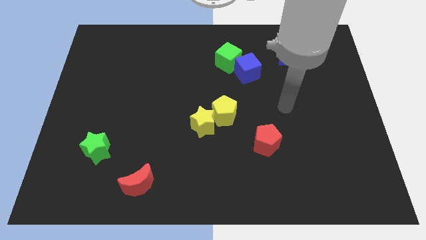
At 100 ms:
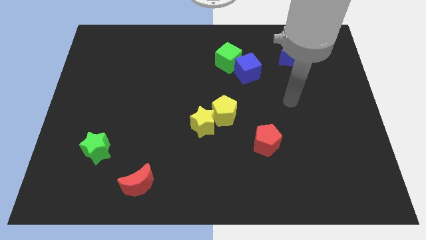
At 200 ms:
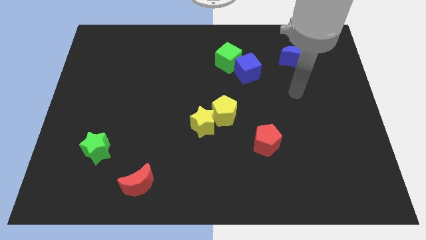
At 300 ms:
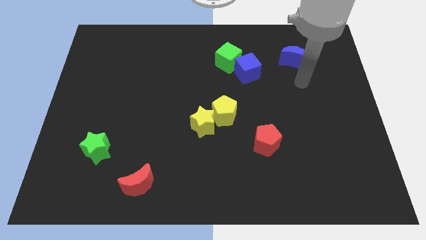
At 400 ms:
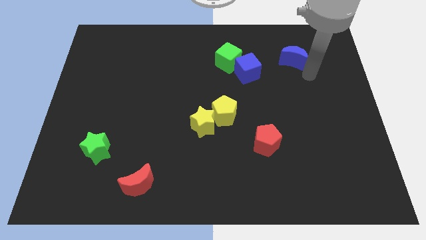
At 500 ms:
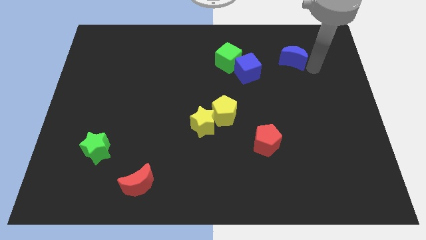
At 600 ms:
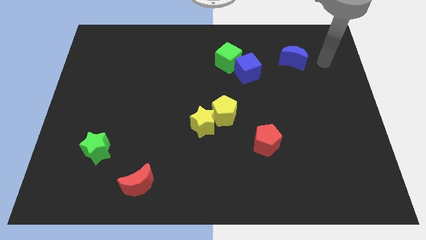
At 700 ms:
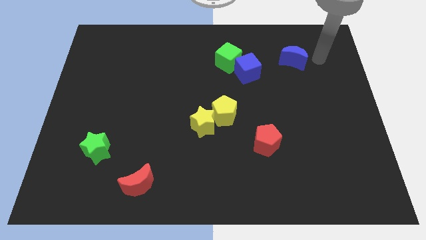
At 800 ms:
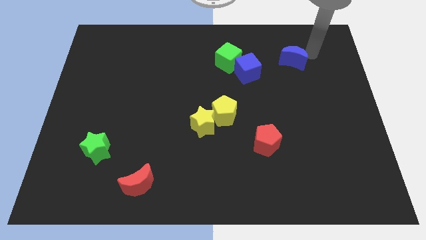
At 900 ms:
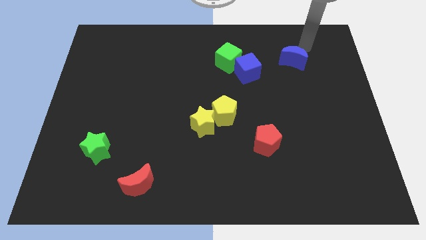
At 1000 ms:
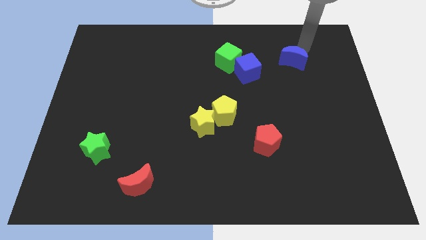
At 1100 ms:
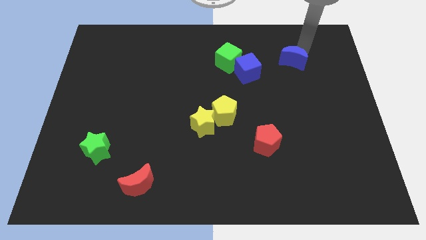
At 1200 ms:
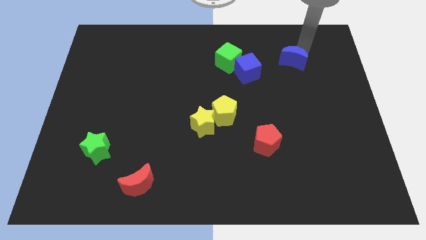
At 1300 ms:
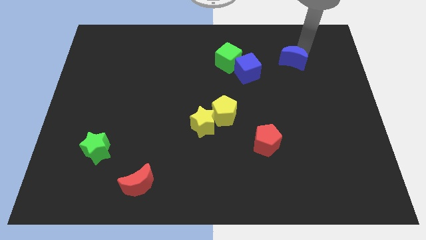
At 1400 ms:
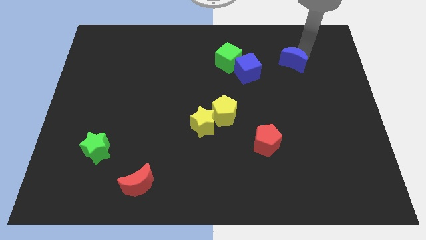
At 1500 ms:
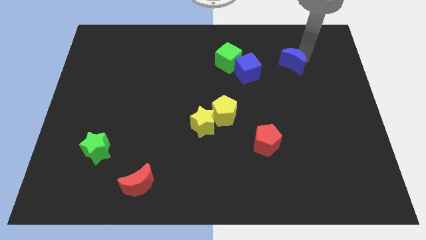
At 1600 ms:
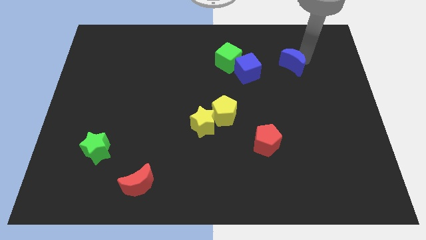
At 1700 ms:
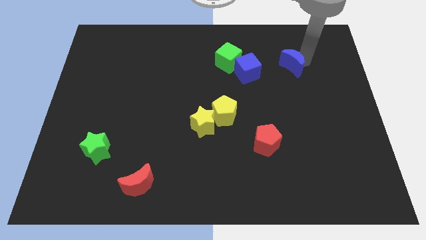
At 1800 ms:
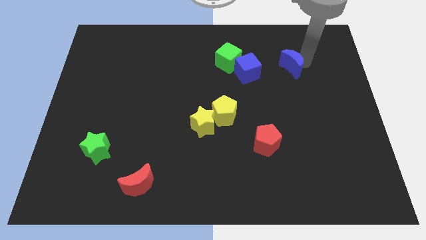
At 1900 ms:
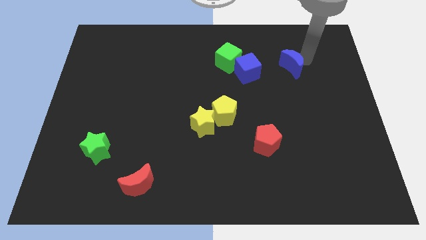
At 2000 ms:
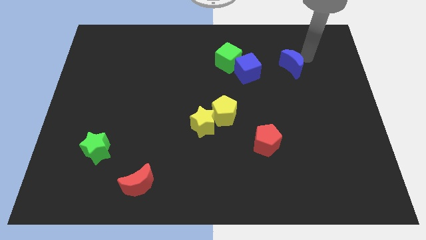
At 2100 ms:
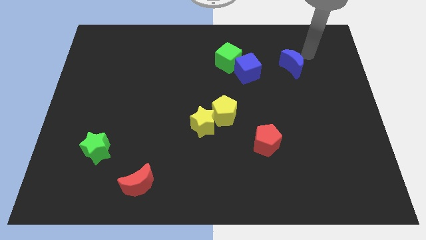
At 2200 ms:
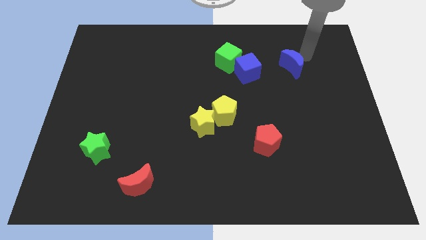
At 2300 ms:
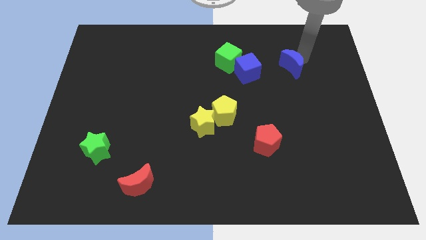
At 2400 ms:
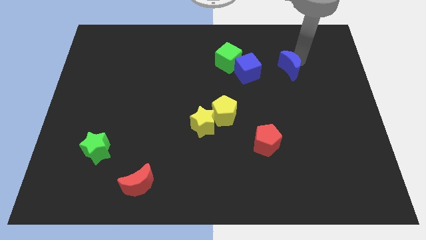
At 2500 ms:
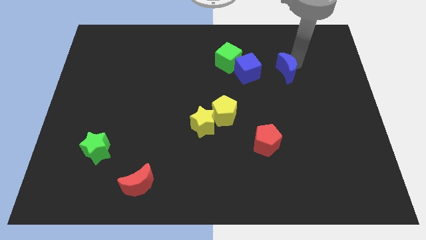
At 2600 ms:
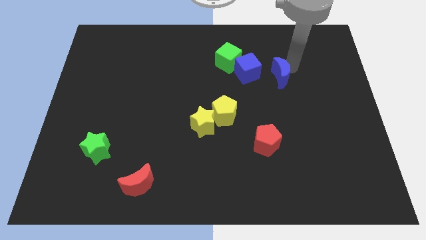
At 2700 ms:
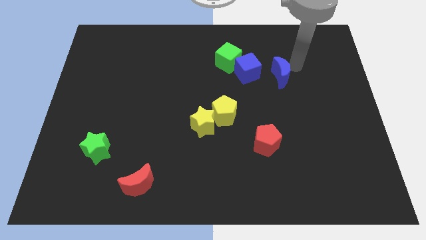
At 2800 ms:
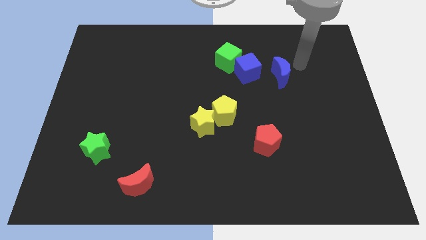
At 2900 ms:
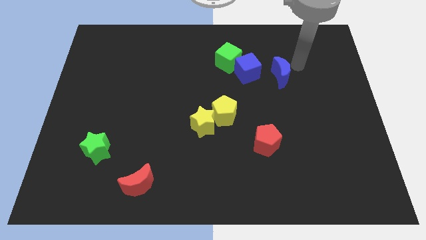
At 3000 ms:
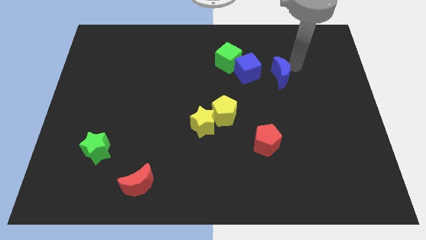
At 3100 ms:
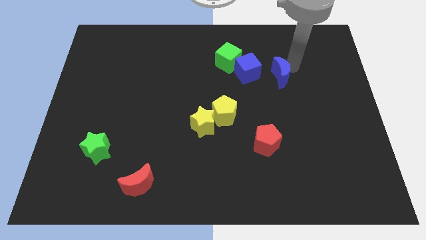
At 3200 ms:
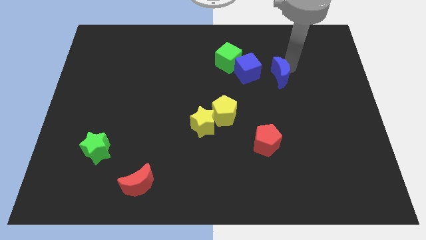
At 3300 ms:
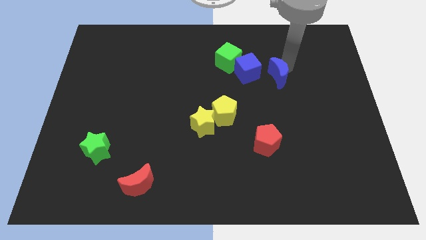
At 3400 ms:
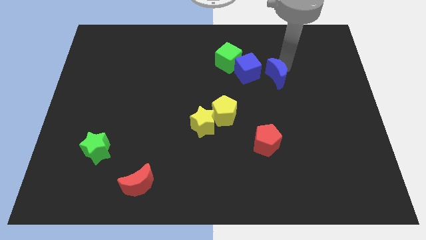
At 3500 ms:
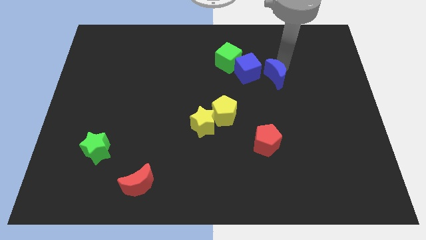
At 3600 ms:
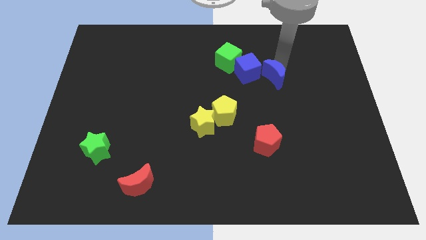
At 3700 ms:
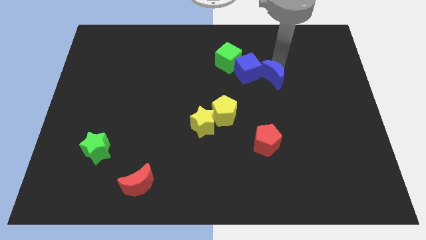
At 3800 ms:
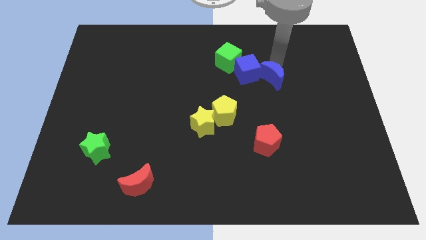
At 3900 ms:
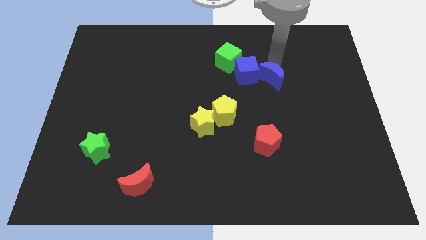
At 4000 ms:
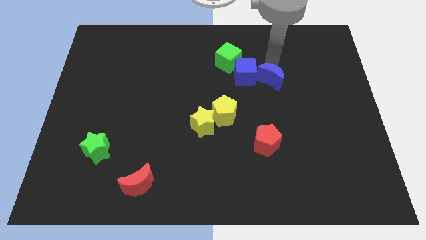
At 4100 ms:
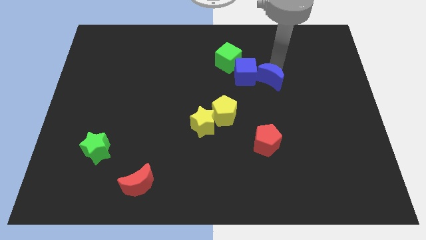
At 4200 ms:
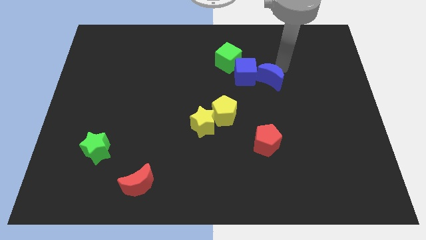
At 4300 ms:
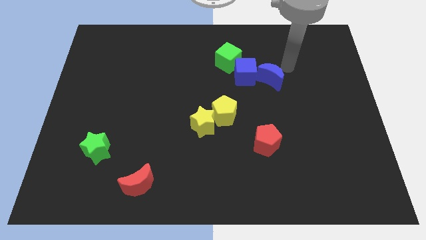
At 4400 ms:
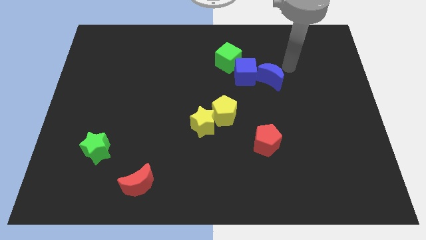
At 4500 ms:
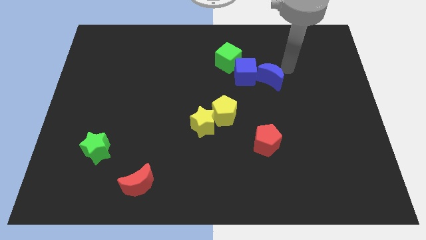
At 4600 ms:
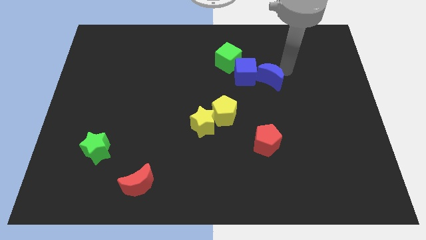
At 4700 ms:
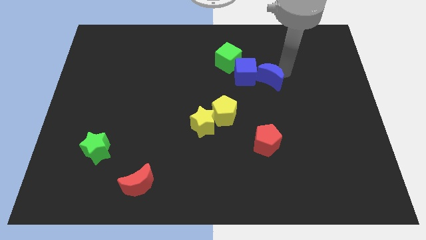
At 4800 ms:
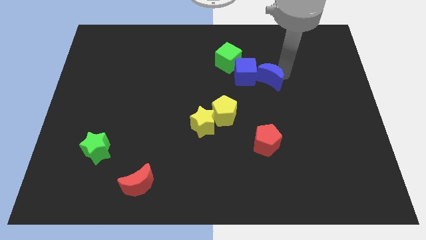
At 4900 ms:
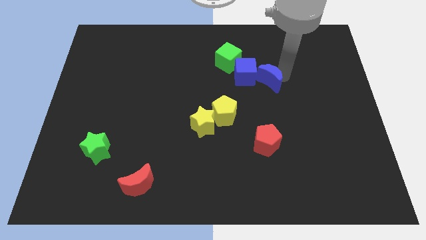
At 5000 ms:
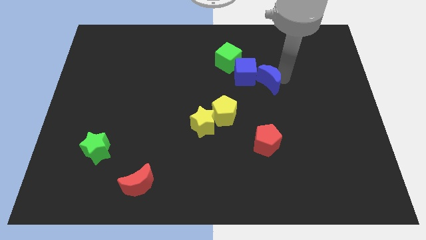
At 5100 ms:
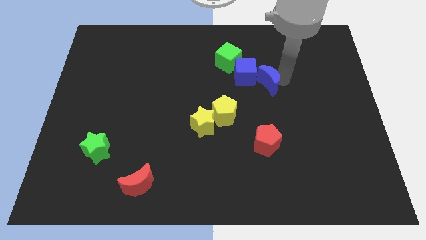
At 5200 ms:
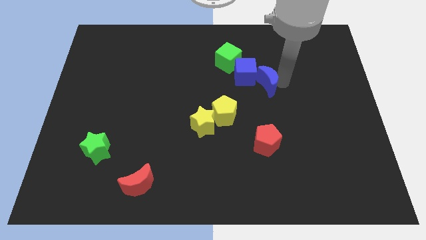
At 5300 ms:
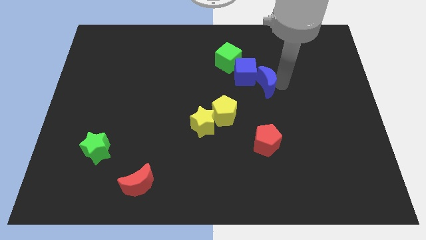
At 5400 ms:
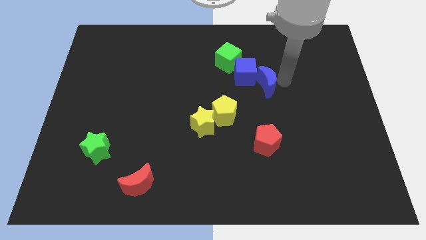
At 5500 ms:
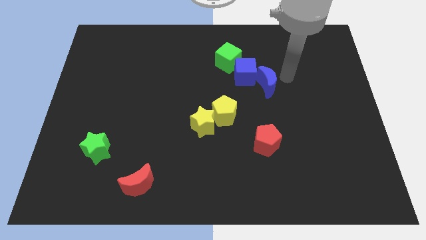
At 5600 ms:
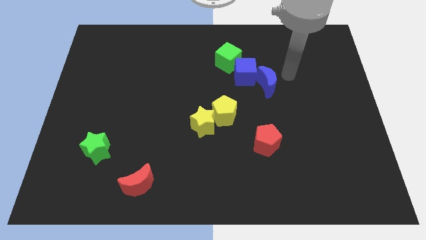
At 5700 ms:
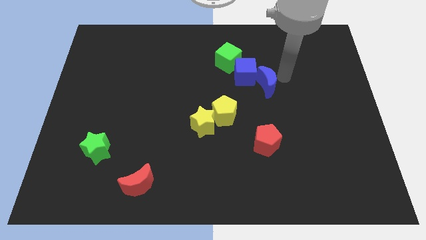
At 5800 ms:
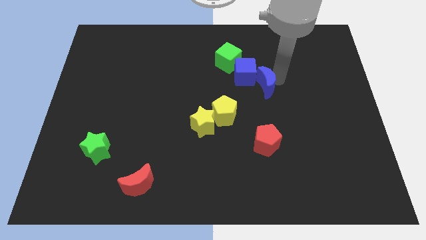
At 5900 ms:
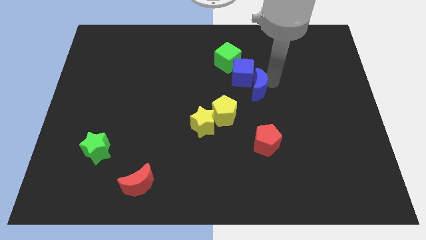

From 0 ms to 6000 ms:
slide the blue moon to the middle
